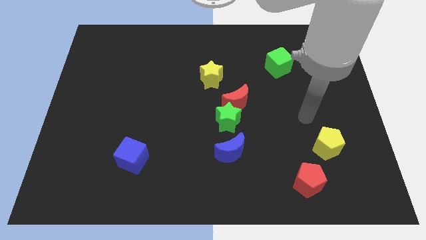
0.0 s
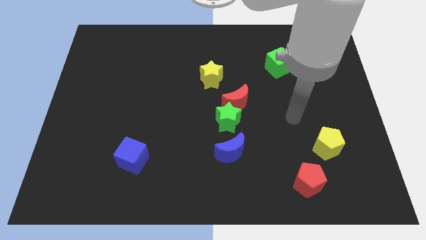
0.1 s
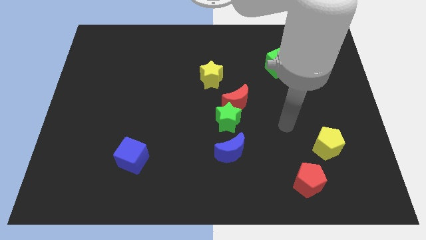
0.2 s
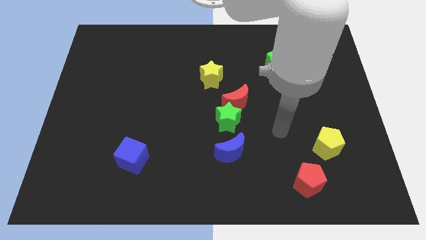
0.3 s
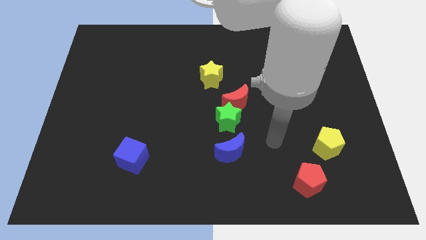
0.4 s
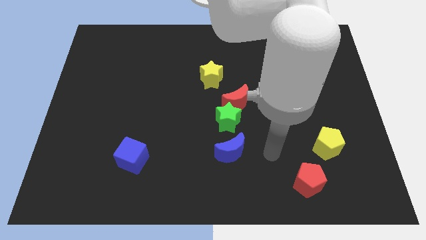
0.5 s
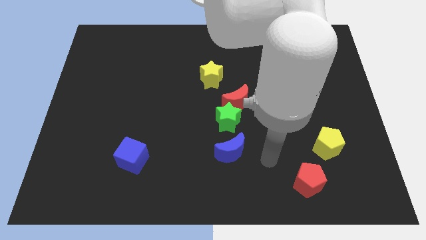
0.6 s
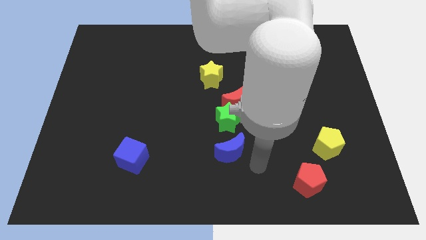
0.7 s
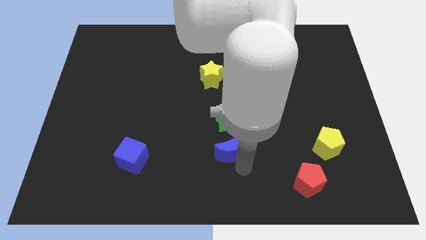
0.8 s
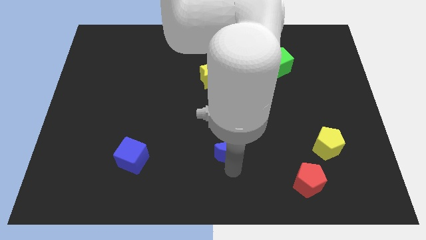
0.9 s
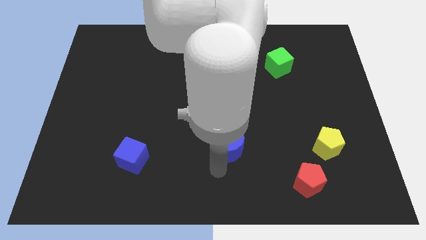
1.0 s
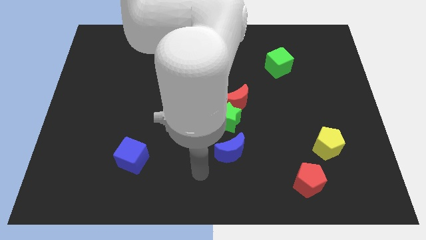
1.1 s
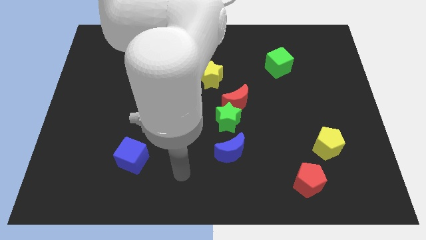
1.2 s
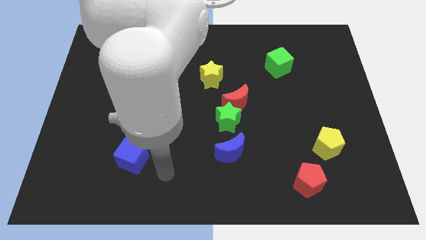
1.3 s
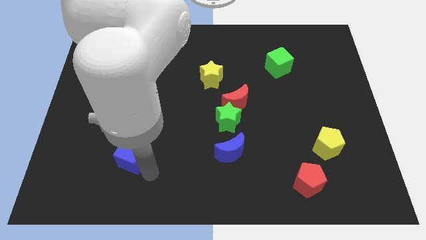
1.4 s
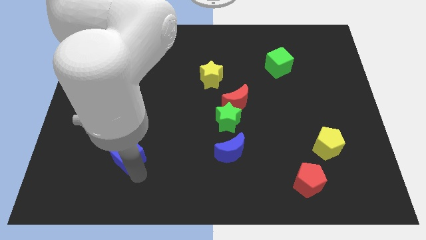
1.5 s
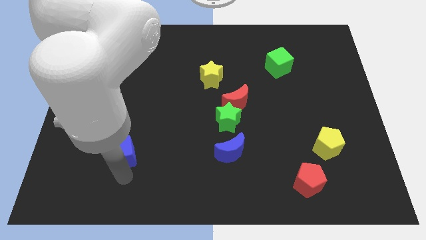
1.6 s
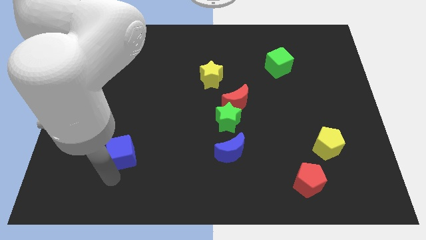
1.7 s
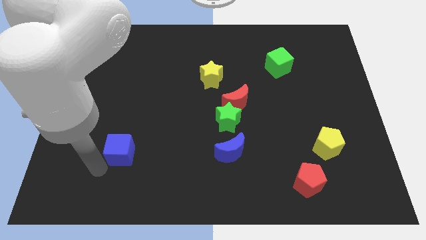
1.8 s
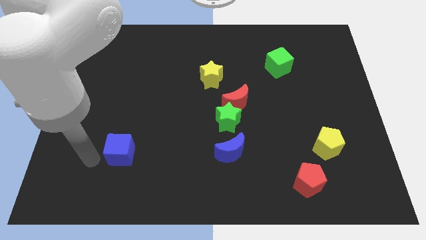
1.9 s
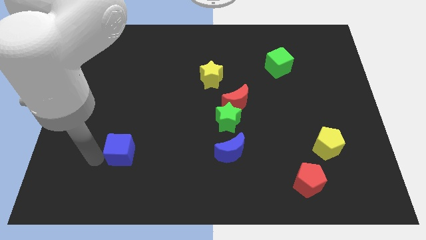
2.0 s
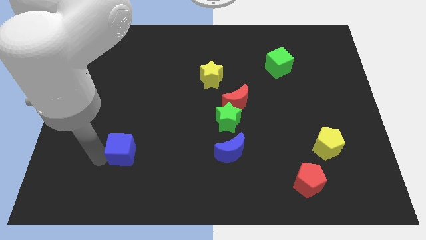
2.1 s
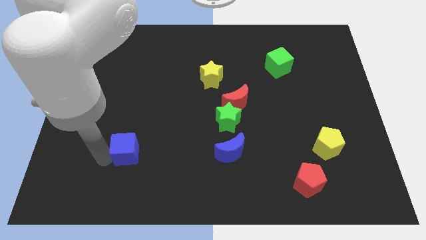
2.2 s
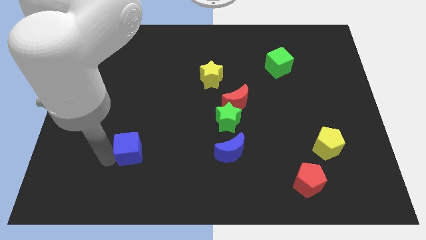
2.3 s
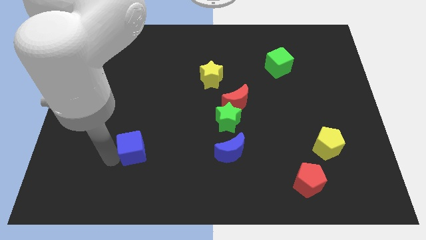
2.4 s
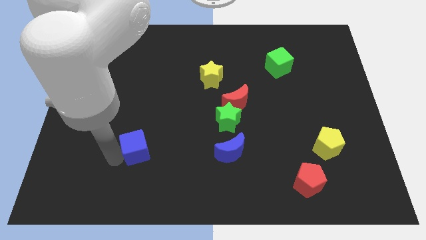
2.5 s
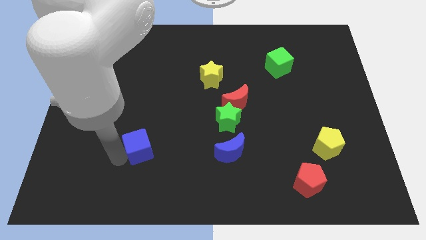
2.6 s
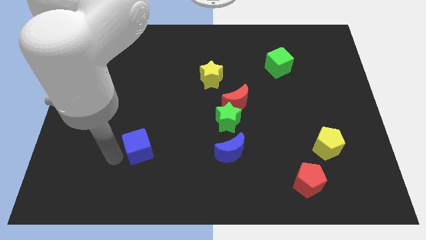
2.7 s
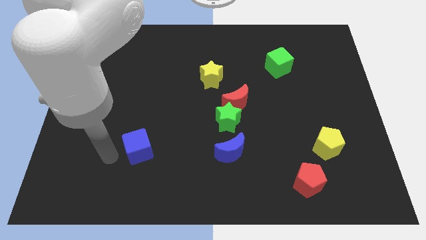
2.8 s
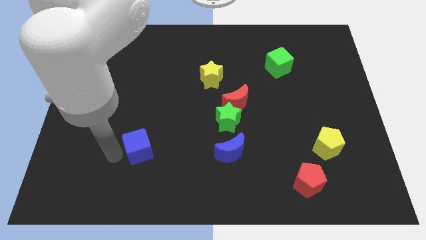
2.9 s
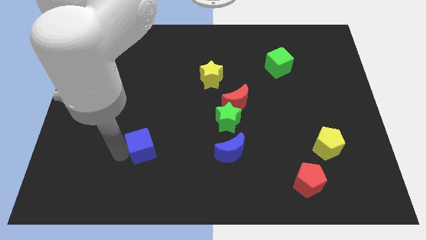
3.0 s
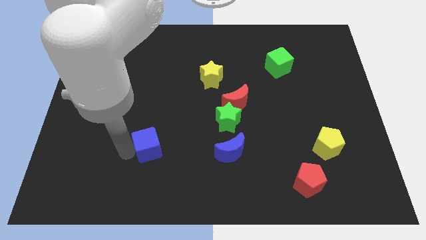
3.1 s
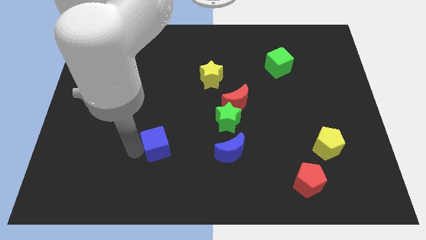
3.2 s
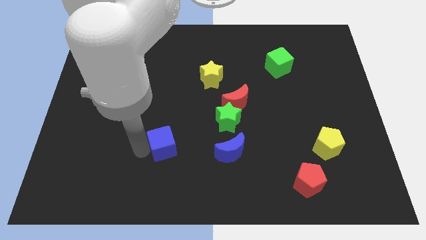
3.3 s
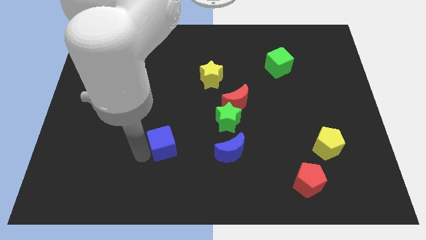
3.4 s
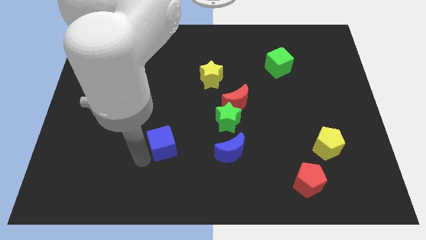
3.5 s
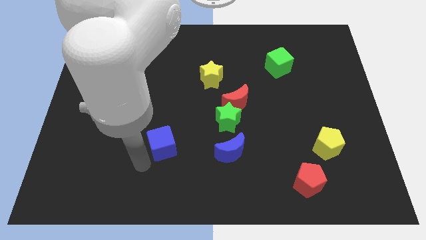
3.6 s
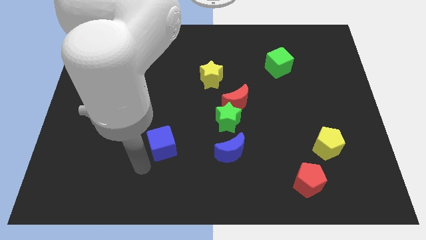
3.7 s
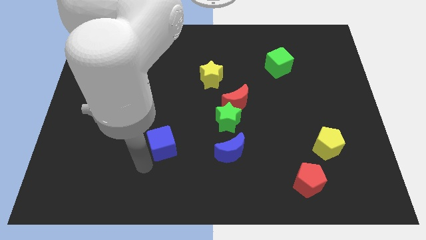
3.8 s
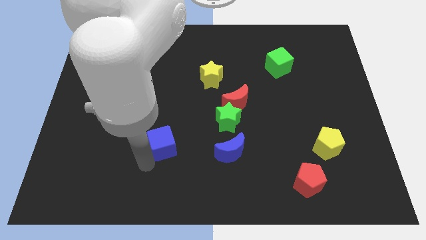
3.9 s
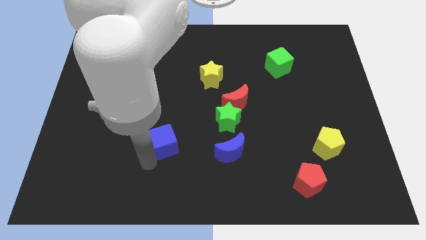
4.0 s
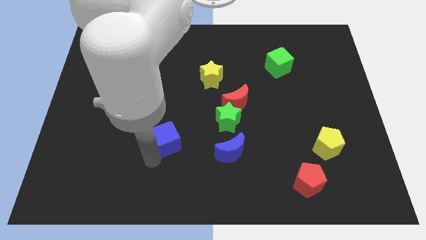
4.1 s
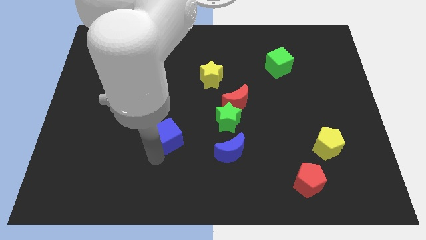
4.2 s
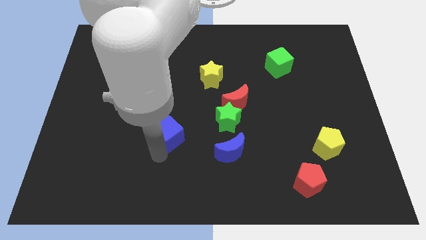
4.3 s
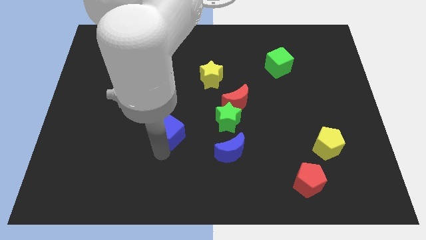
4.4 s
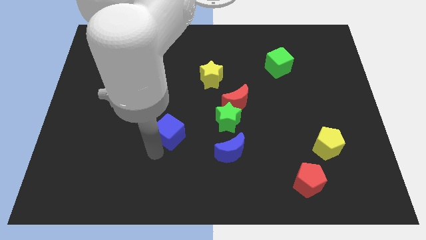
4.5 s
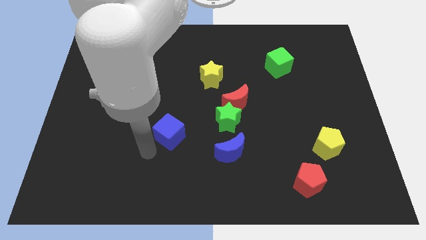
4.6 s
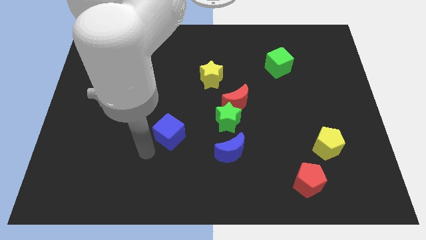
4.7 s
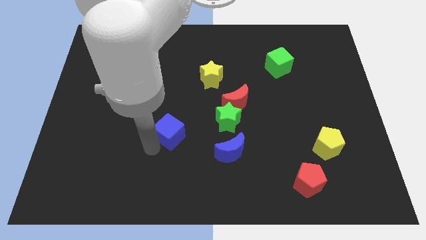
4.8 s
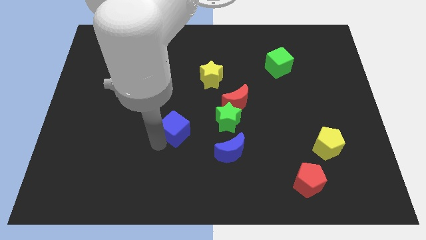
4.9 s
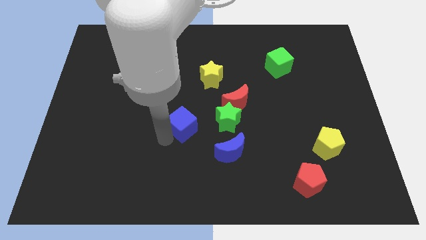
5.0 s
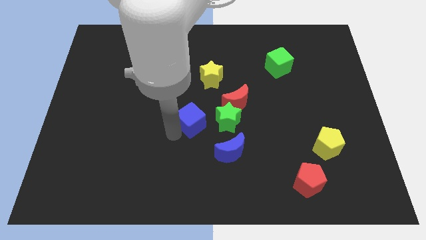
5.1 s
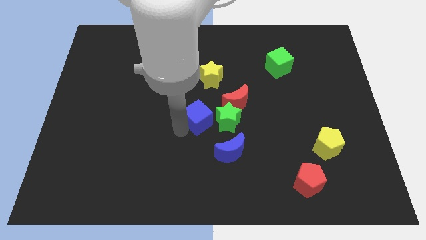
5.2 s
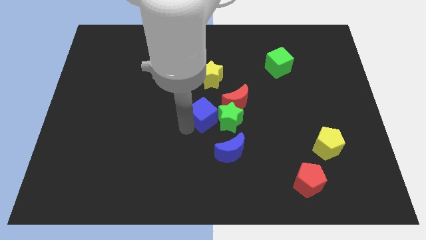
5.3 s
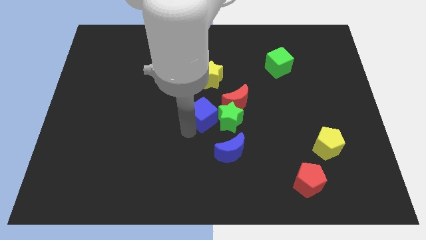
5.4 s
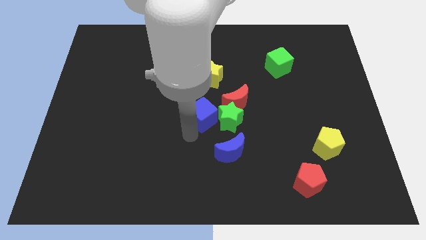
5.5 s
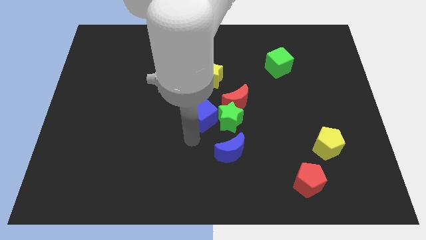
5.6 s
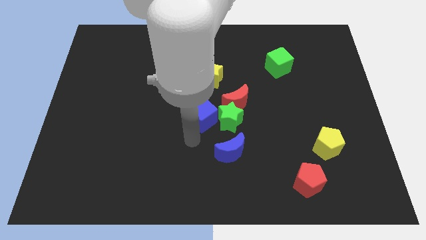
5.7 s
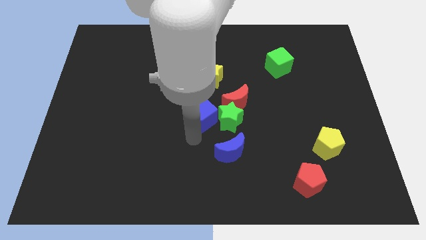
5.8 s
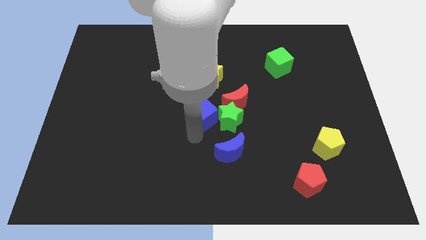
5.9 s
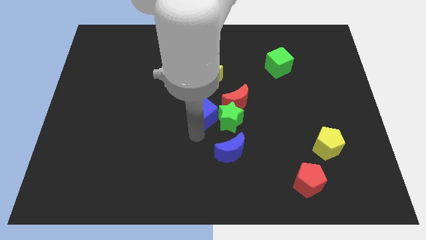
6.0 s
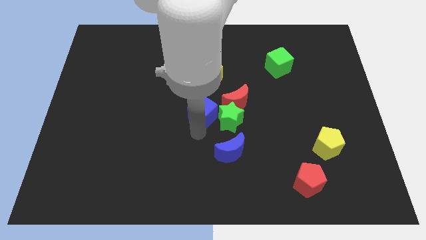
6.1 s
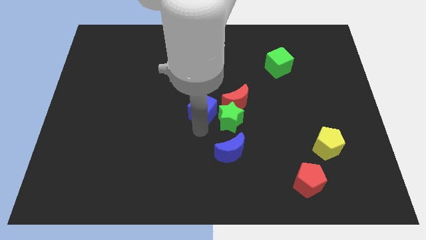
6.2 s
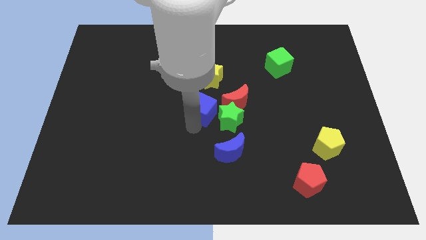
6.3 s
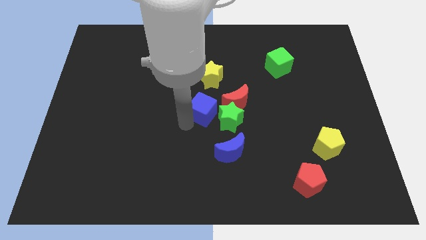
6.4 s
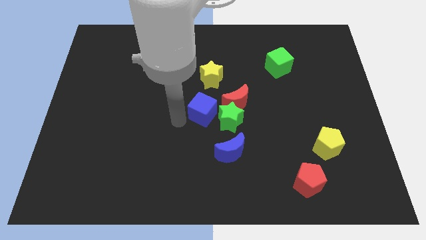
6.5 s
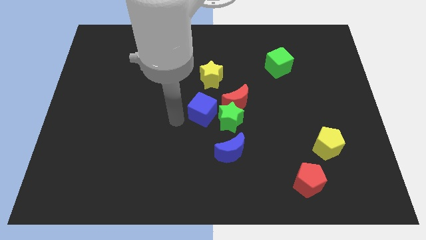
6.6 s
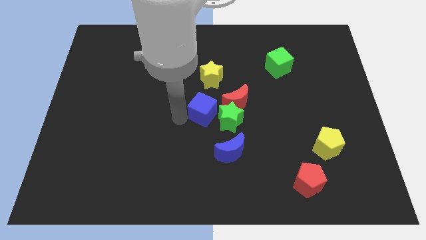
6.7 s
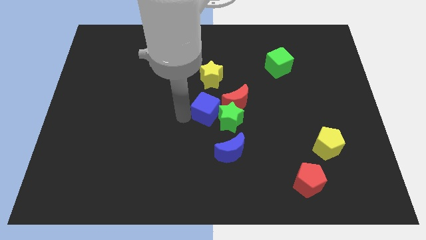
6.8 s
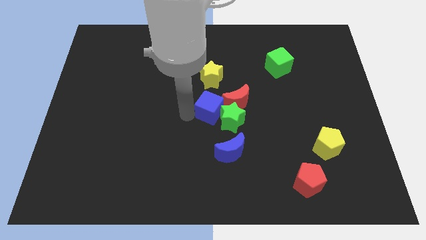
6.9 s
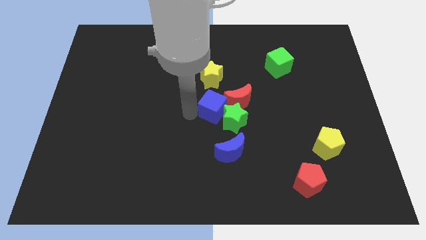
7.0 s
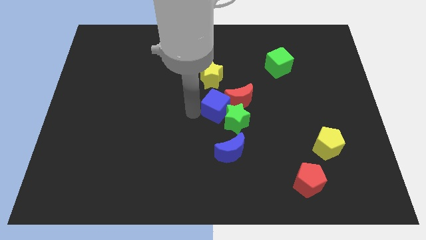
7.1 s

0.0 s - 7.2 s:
put the blue cube close to the red moon

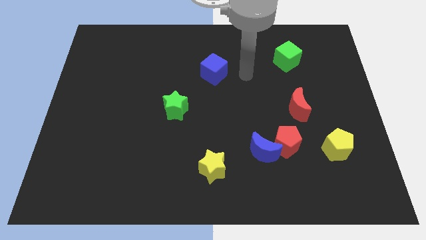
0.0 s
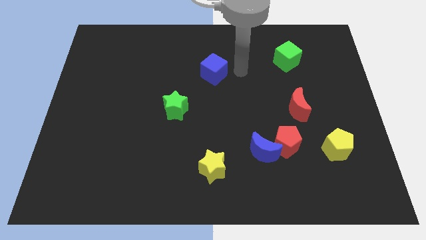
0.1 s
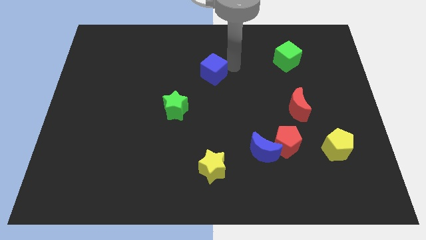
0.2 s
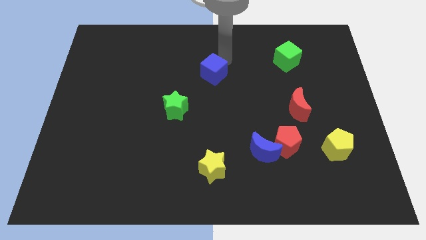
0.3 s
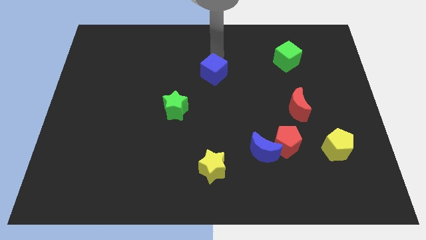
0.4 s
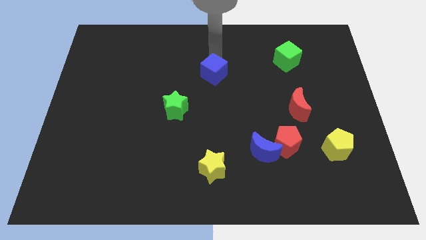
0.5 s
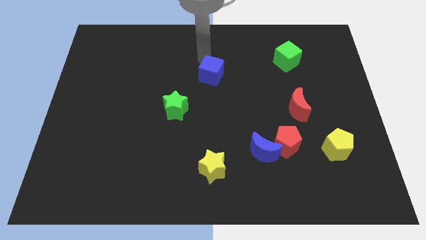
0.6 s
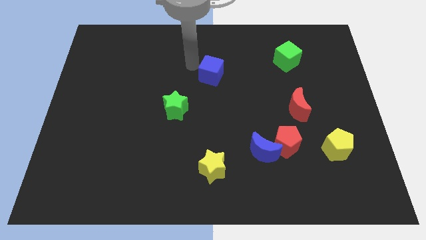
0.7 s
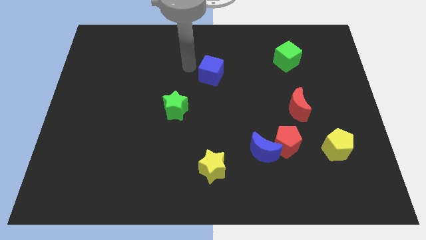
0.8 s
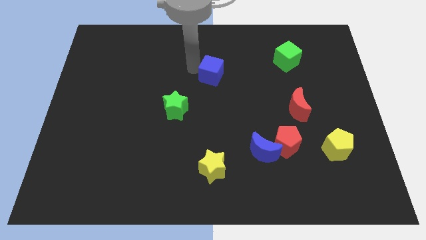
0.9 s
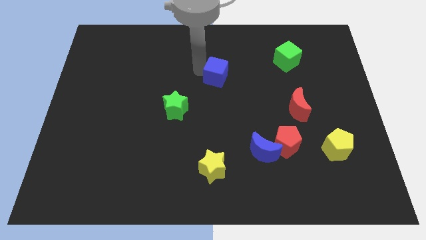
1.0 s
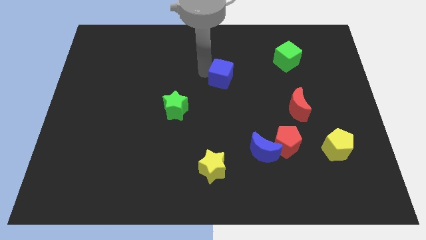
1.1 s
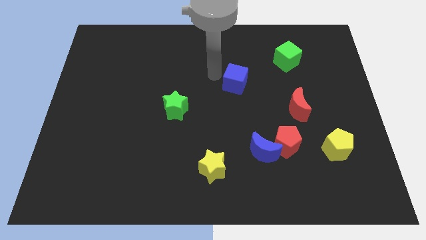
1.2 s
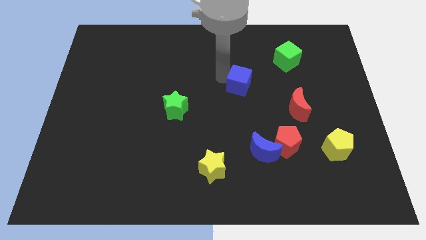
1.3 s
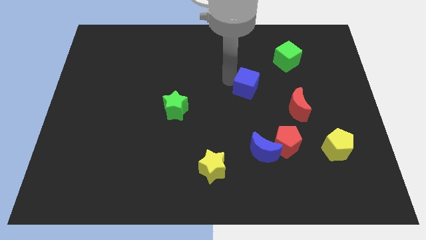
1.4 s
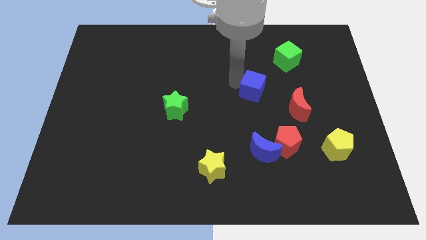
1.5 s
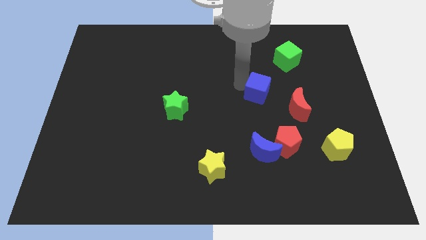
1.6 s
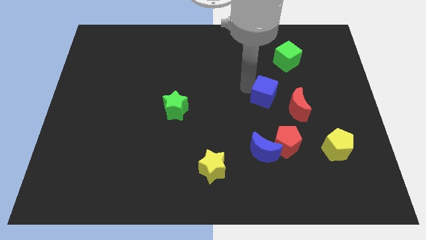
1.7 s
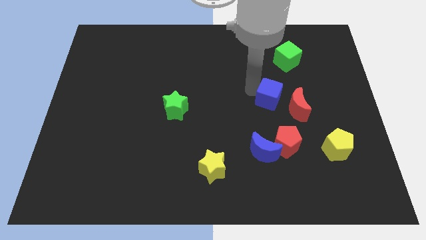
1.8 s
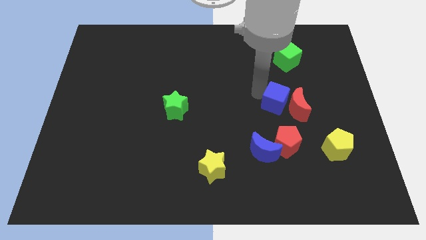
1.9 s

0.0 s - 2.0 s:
slide the blue cube to the red moon
